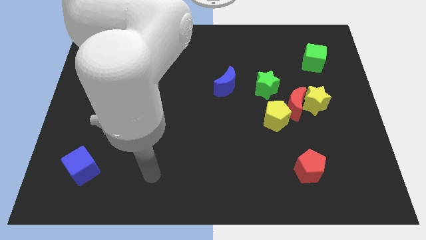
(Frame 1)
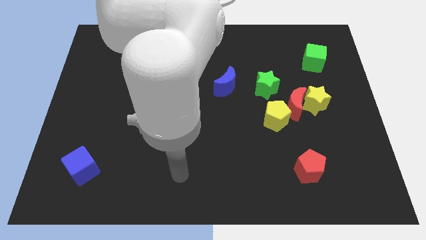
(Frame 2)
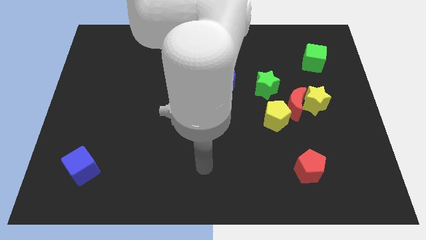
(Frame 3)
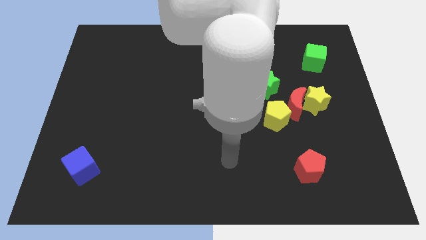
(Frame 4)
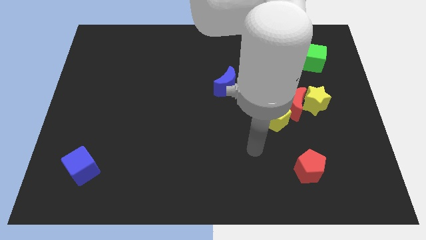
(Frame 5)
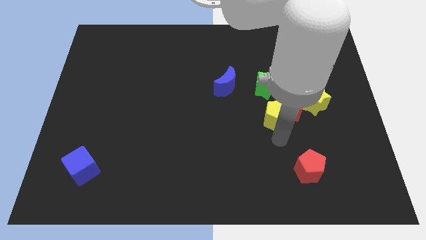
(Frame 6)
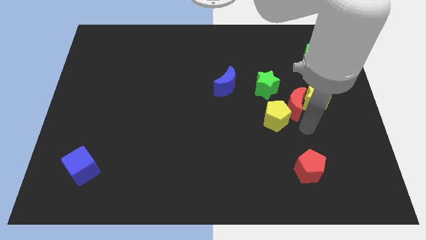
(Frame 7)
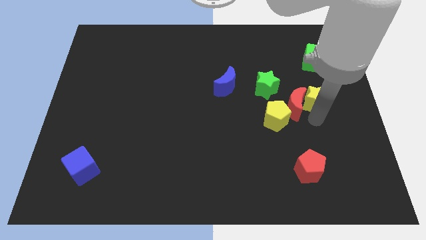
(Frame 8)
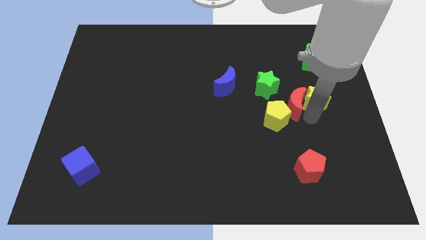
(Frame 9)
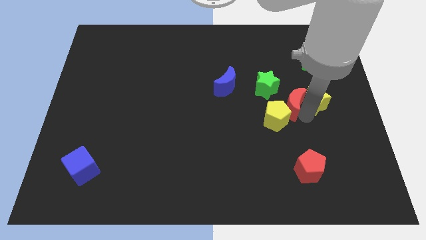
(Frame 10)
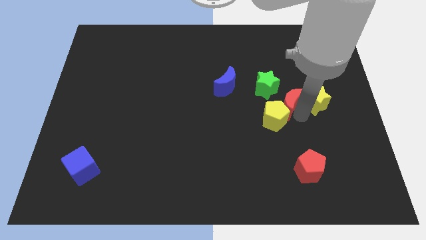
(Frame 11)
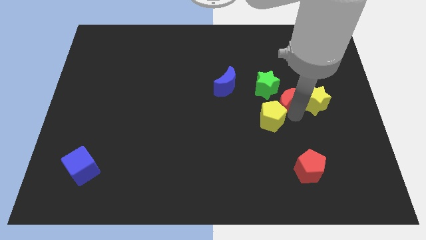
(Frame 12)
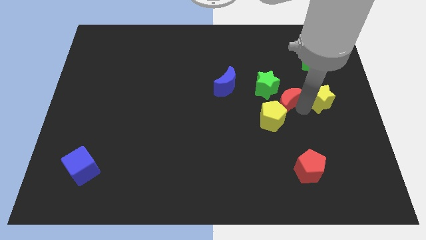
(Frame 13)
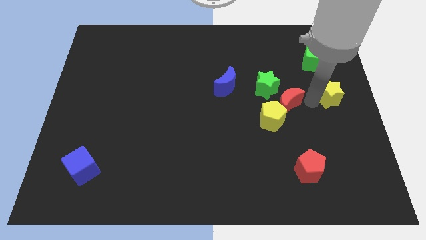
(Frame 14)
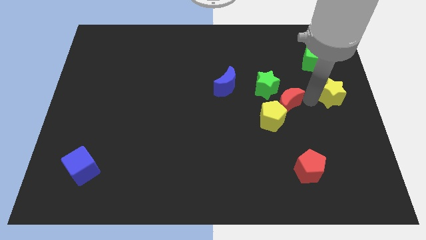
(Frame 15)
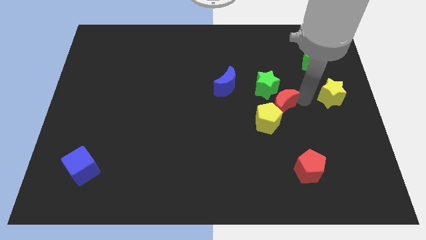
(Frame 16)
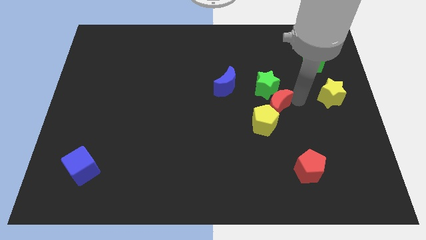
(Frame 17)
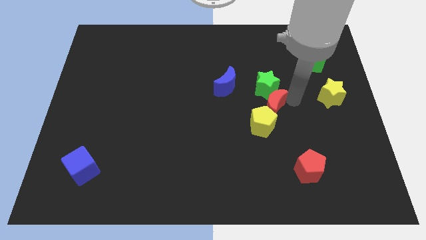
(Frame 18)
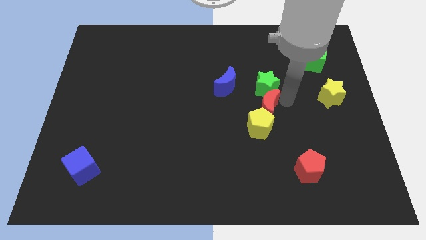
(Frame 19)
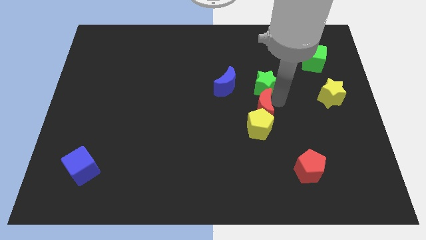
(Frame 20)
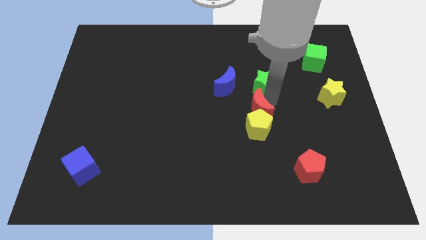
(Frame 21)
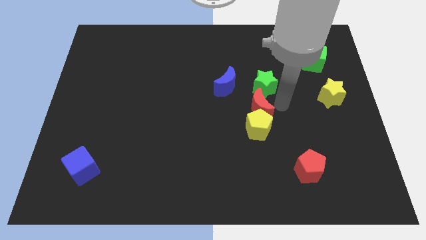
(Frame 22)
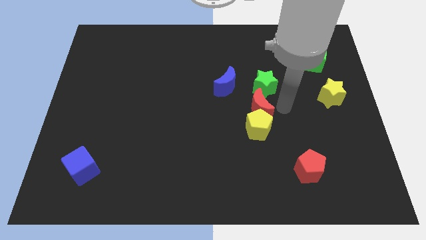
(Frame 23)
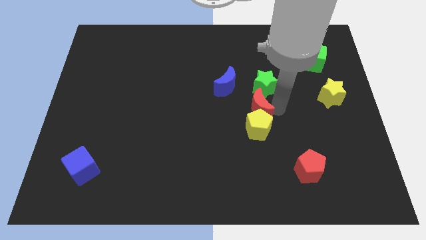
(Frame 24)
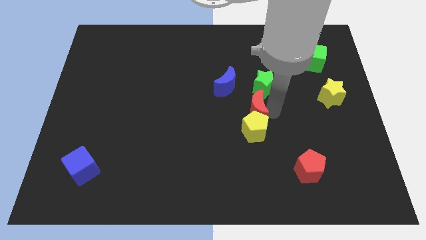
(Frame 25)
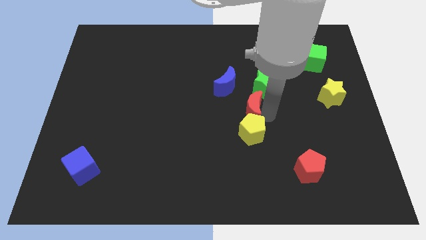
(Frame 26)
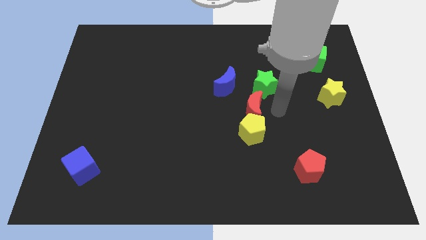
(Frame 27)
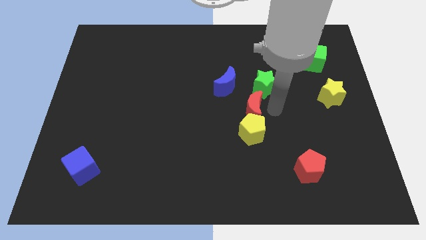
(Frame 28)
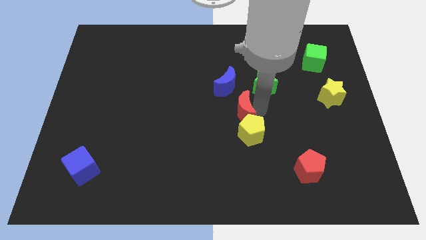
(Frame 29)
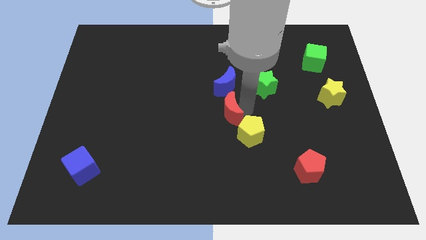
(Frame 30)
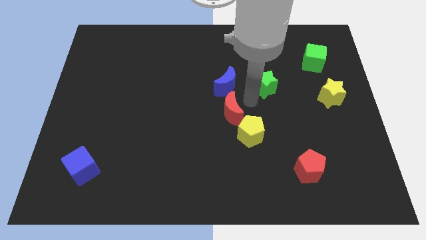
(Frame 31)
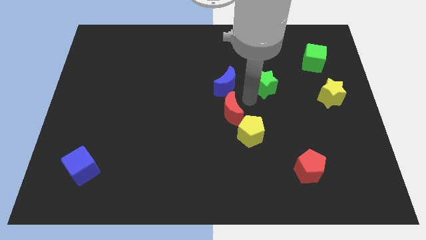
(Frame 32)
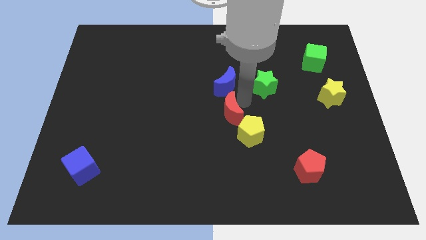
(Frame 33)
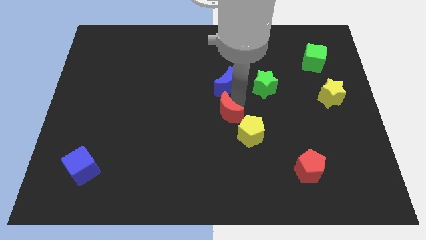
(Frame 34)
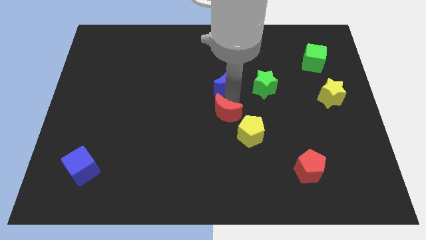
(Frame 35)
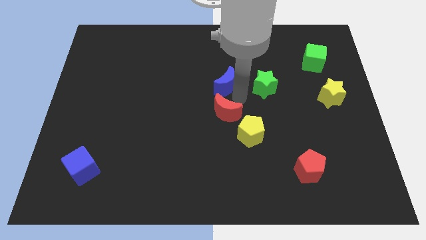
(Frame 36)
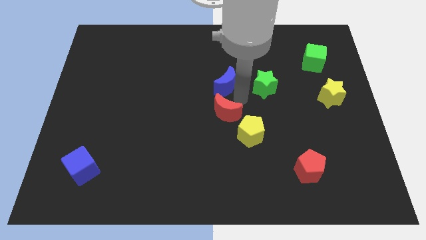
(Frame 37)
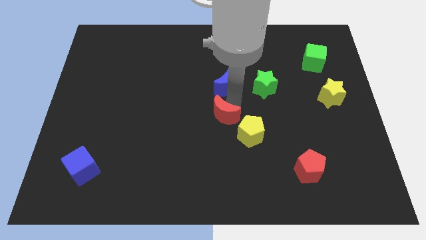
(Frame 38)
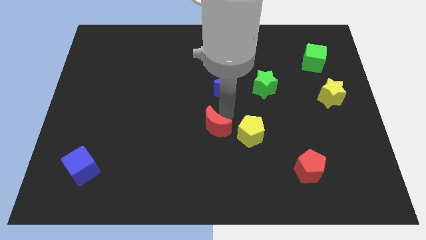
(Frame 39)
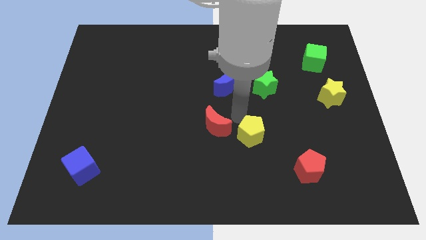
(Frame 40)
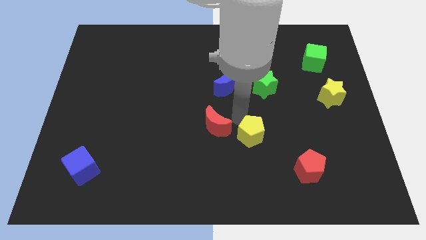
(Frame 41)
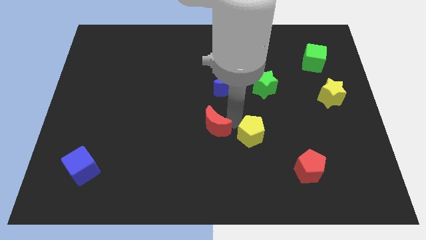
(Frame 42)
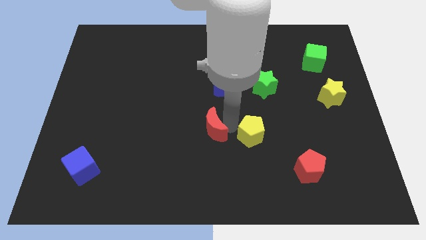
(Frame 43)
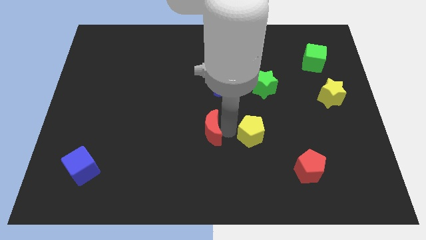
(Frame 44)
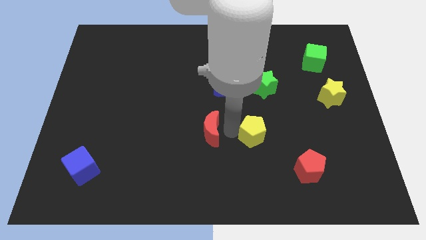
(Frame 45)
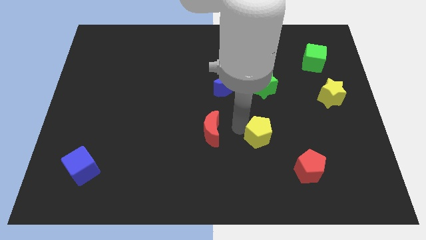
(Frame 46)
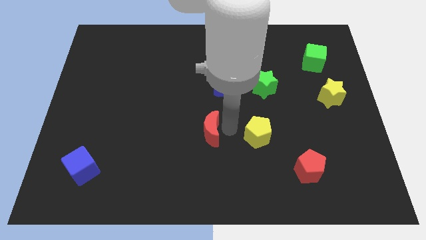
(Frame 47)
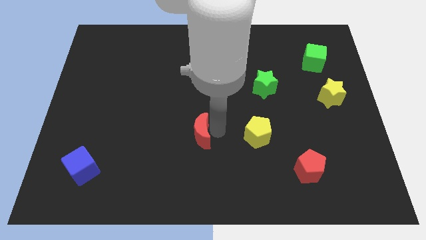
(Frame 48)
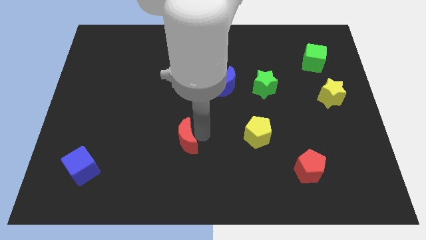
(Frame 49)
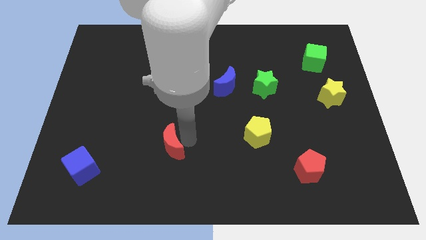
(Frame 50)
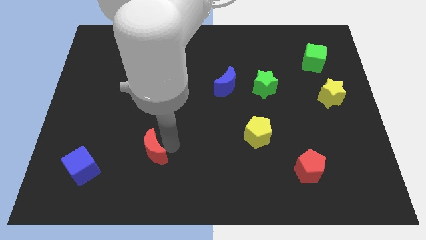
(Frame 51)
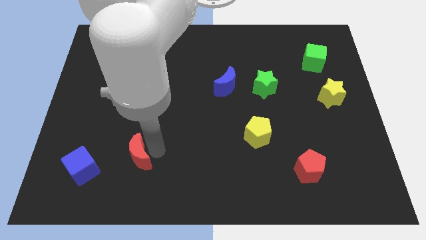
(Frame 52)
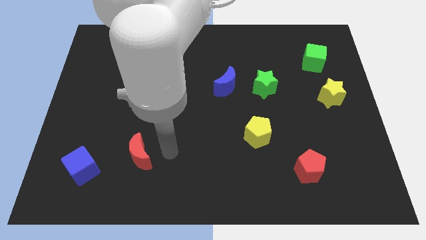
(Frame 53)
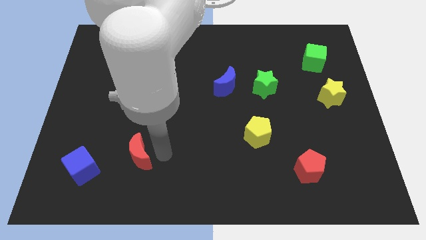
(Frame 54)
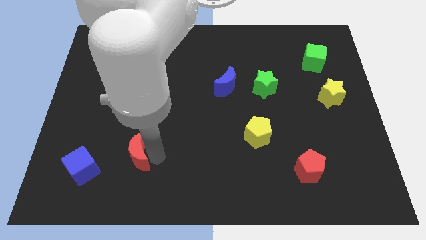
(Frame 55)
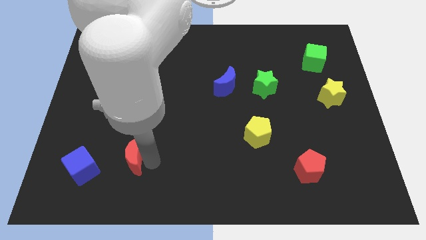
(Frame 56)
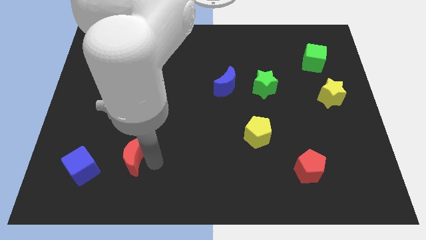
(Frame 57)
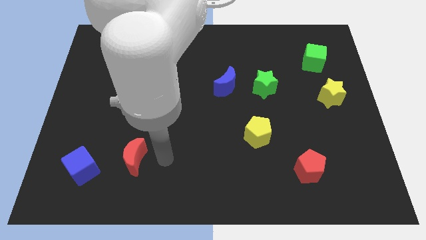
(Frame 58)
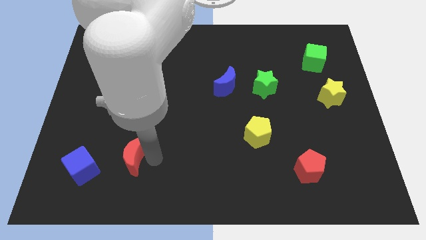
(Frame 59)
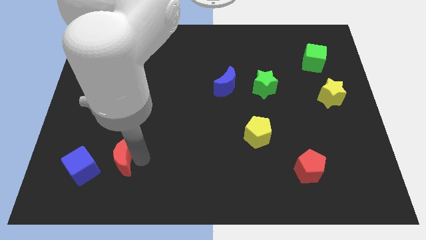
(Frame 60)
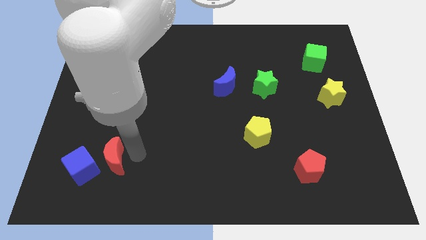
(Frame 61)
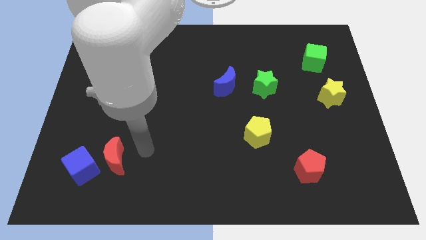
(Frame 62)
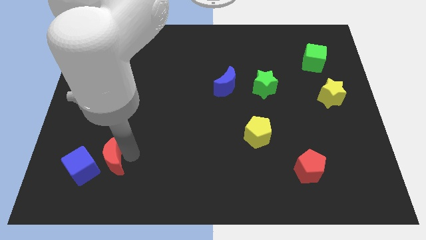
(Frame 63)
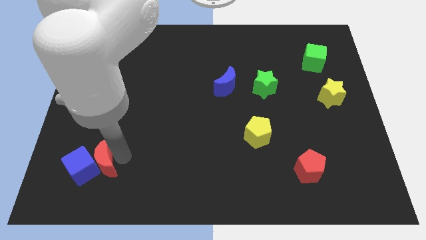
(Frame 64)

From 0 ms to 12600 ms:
push the red moon towards the blue cube
